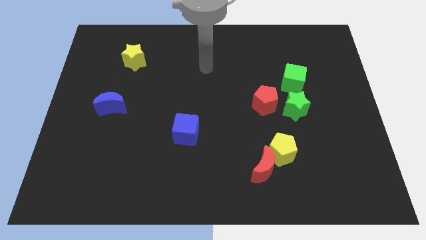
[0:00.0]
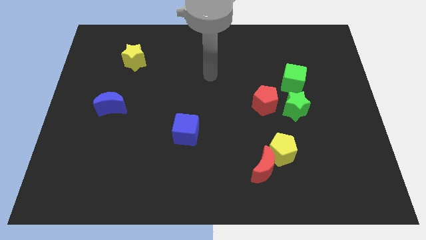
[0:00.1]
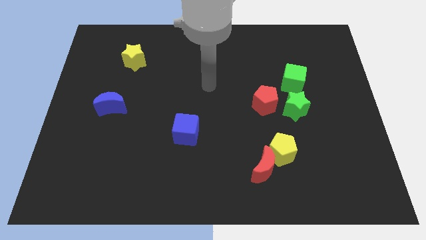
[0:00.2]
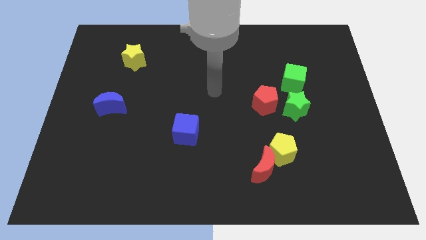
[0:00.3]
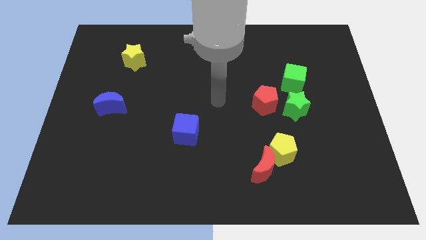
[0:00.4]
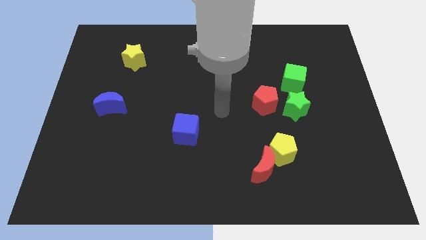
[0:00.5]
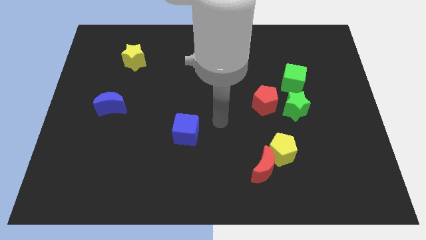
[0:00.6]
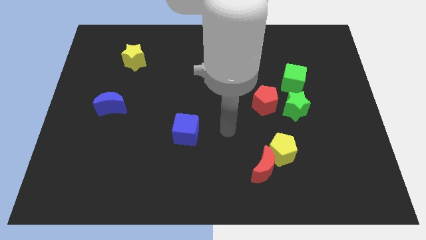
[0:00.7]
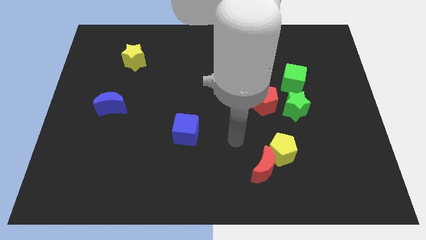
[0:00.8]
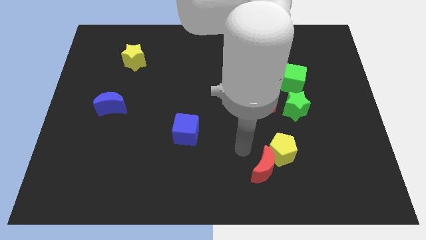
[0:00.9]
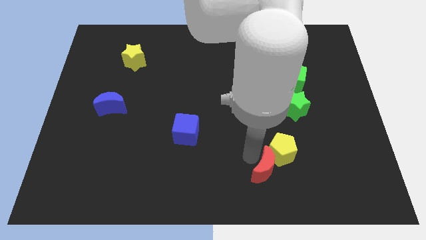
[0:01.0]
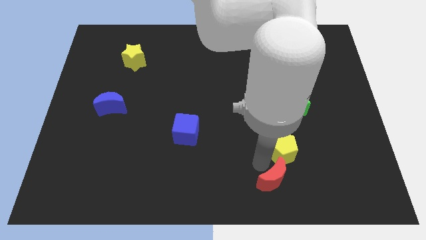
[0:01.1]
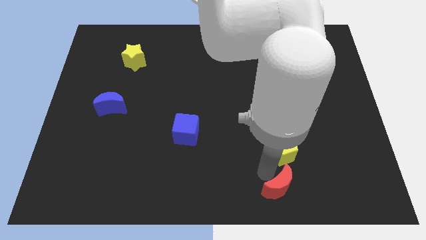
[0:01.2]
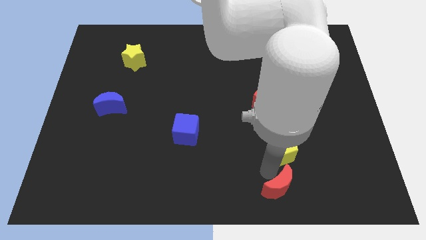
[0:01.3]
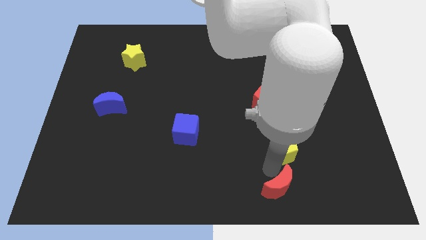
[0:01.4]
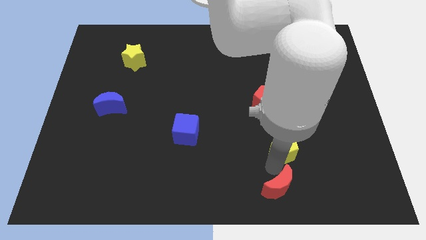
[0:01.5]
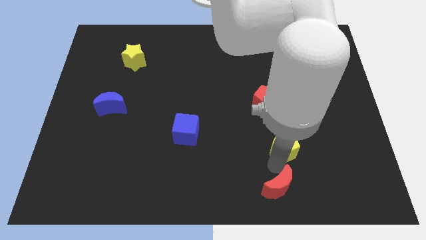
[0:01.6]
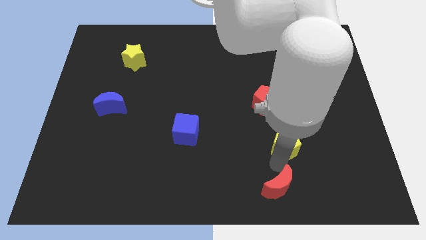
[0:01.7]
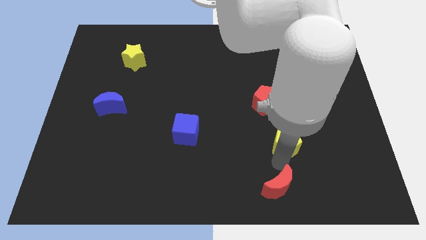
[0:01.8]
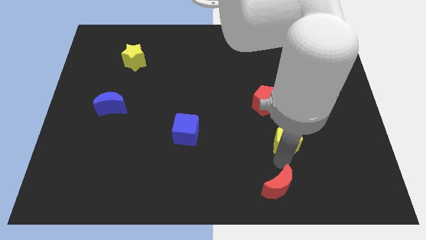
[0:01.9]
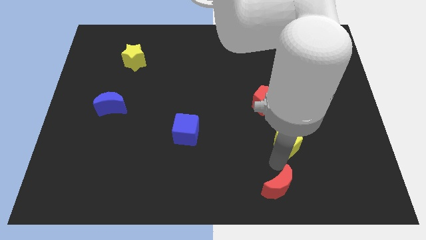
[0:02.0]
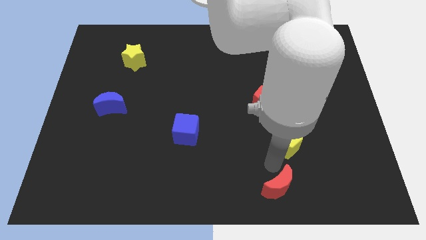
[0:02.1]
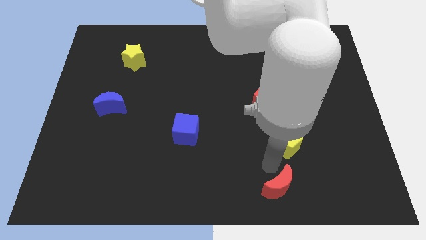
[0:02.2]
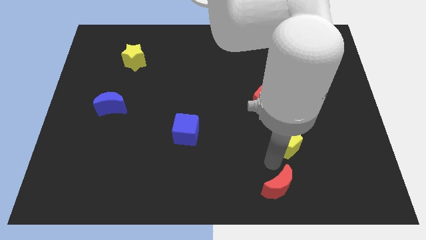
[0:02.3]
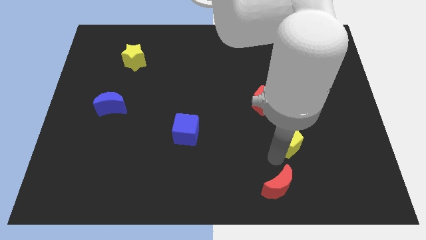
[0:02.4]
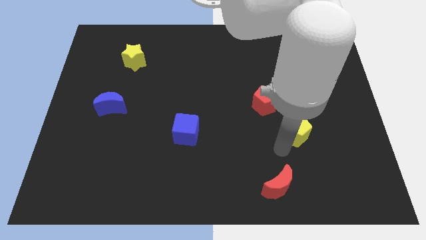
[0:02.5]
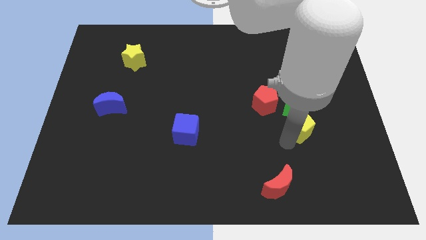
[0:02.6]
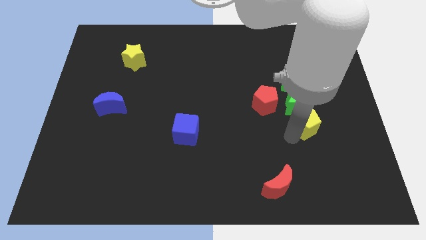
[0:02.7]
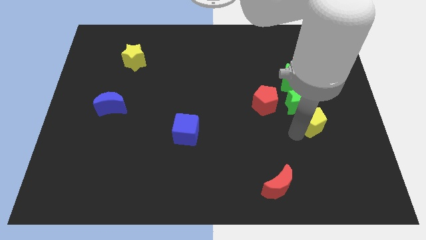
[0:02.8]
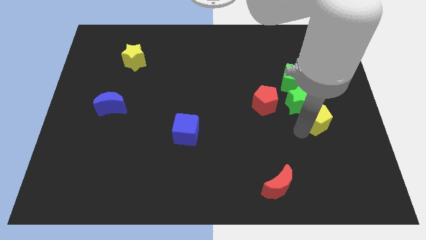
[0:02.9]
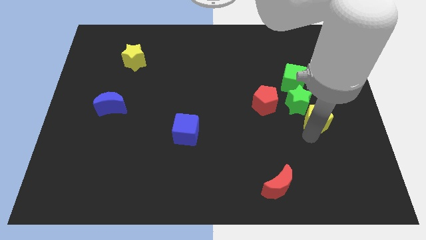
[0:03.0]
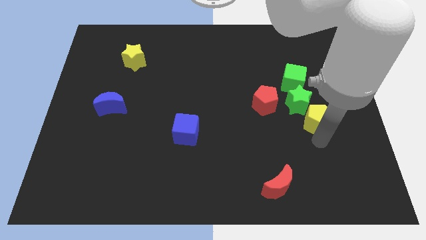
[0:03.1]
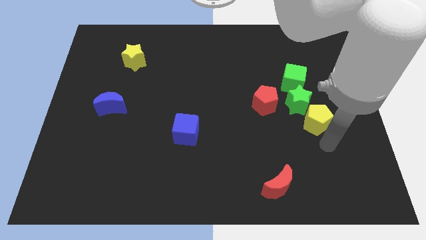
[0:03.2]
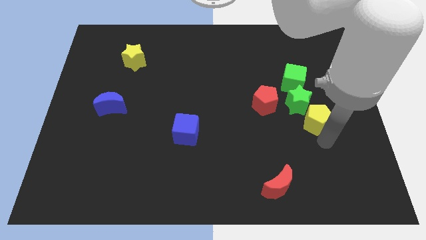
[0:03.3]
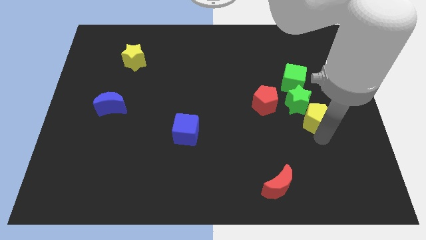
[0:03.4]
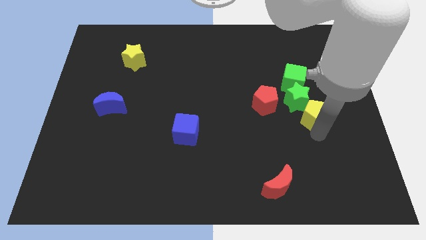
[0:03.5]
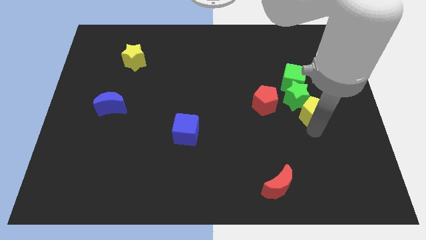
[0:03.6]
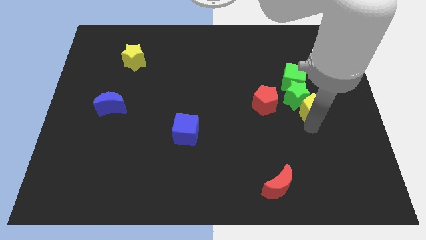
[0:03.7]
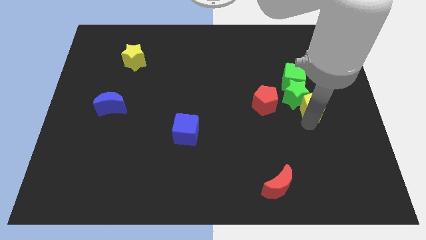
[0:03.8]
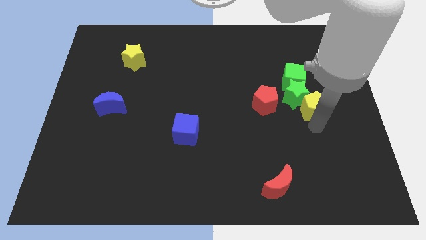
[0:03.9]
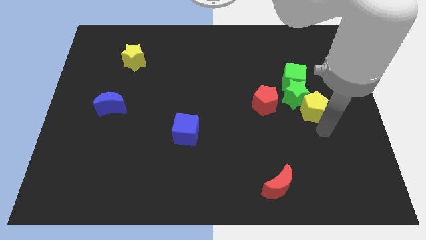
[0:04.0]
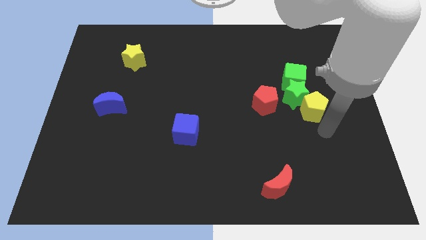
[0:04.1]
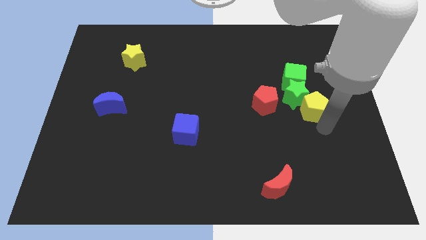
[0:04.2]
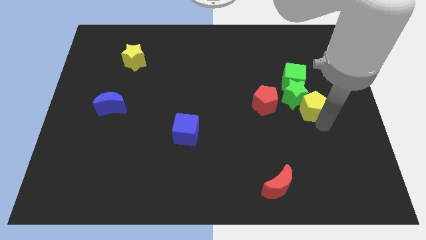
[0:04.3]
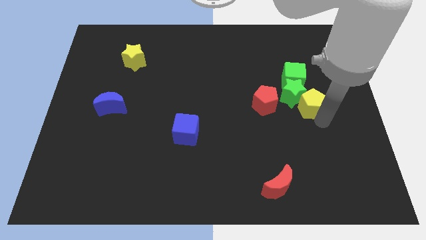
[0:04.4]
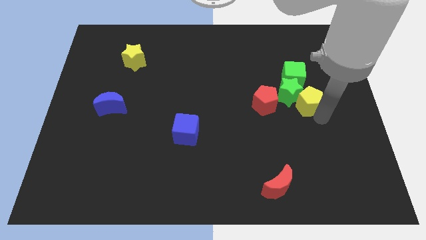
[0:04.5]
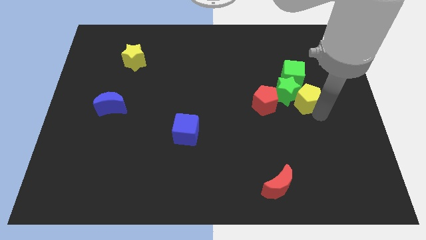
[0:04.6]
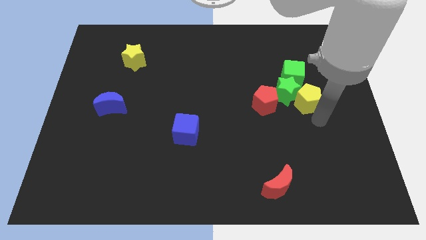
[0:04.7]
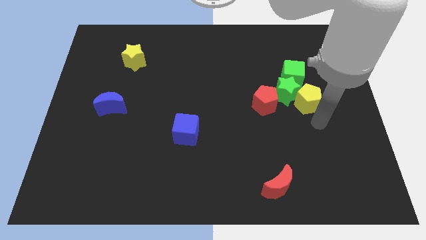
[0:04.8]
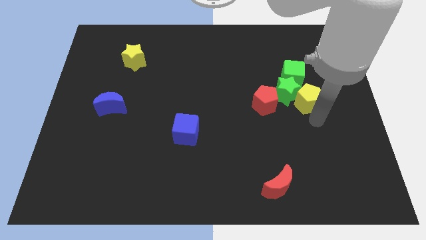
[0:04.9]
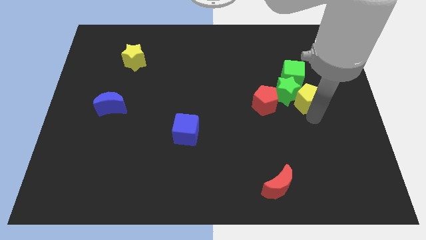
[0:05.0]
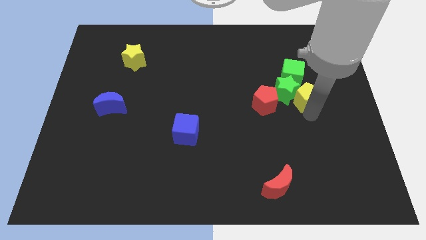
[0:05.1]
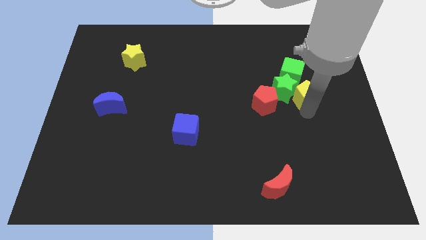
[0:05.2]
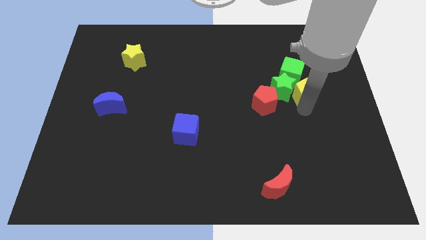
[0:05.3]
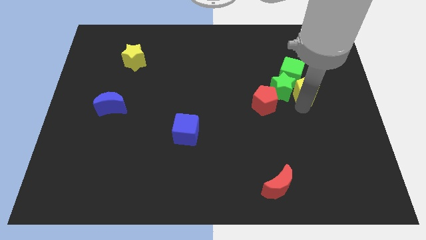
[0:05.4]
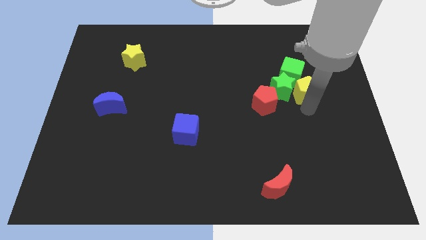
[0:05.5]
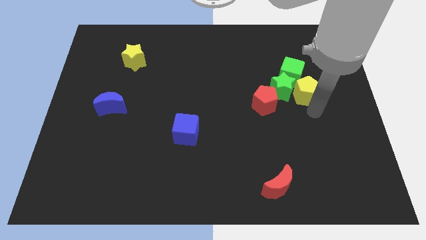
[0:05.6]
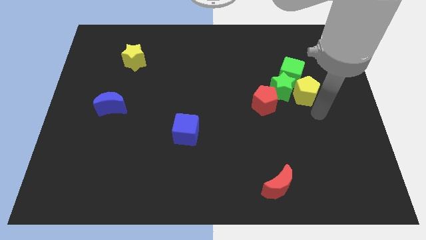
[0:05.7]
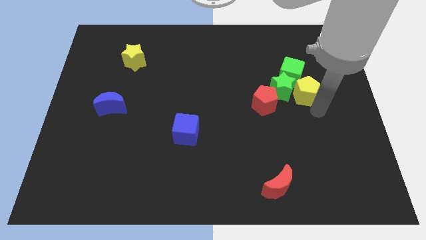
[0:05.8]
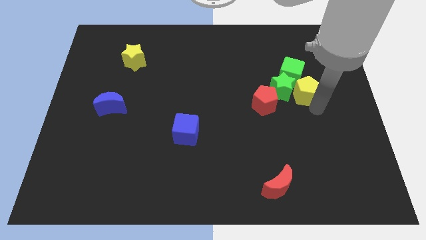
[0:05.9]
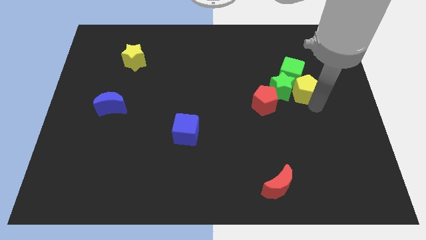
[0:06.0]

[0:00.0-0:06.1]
push the yellow pentagon towards the green cube

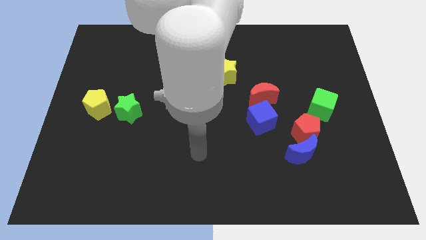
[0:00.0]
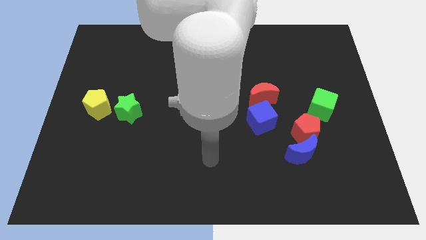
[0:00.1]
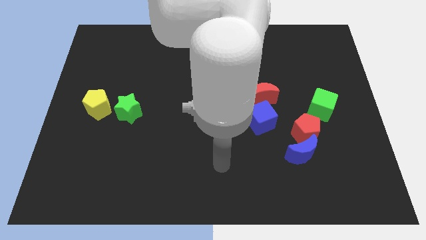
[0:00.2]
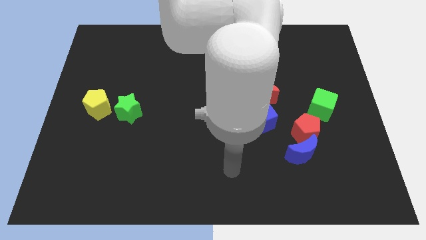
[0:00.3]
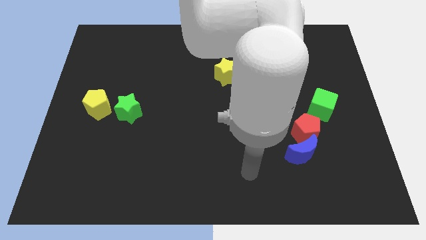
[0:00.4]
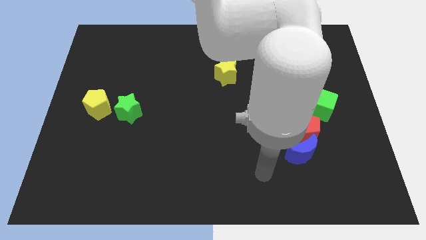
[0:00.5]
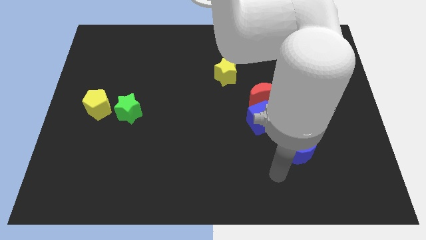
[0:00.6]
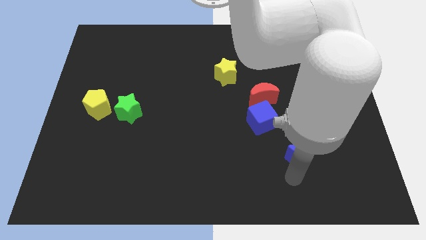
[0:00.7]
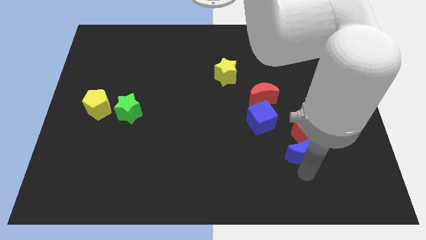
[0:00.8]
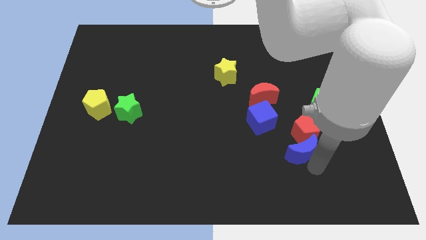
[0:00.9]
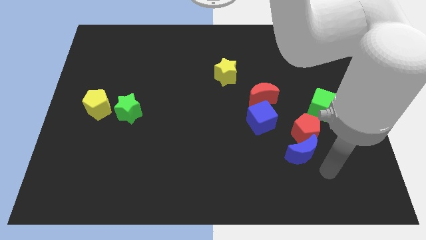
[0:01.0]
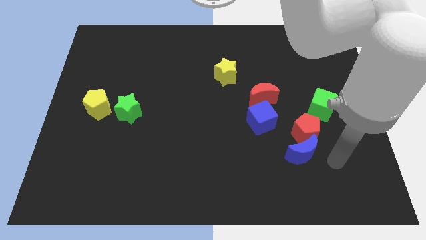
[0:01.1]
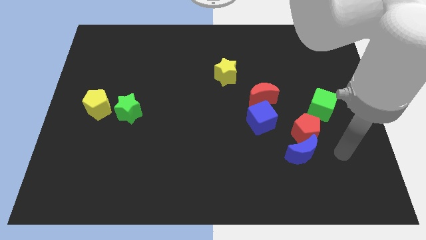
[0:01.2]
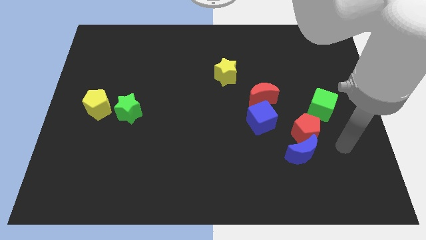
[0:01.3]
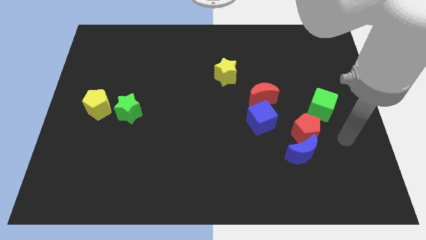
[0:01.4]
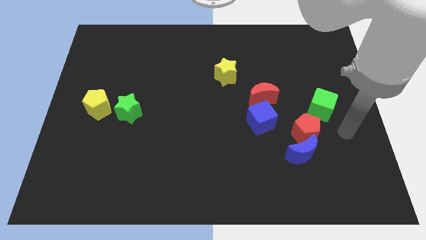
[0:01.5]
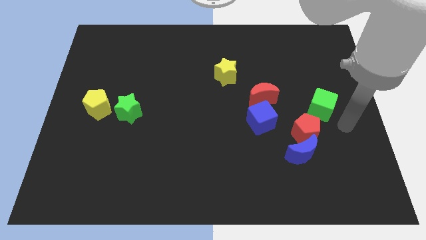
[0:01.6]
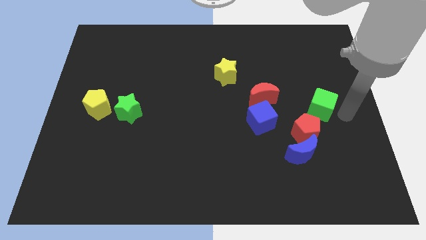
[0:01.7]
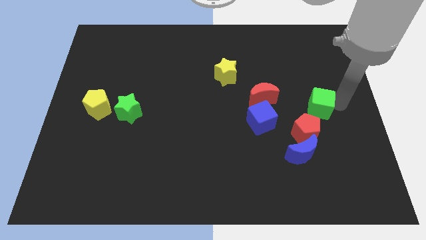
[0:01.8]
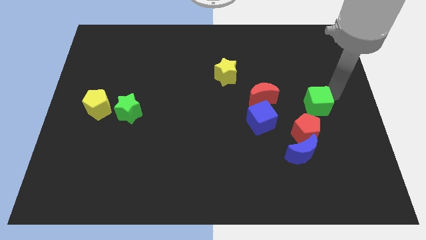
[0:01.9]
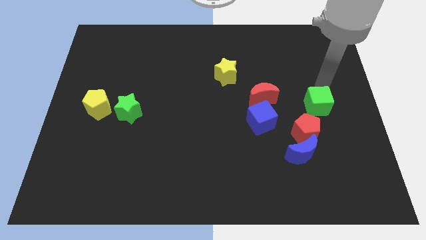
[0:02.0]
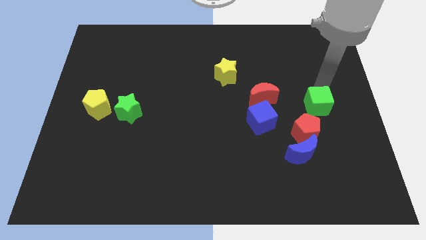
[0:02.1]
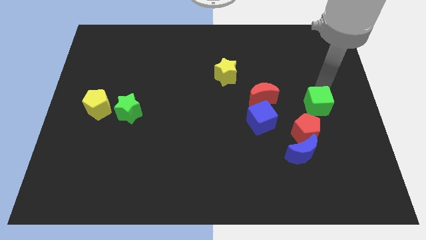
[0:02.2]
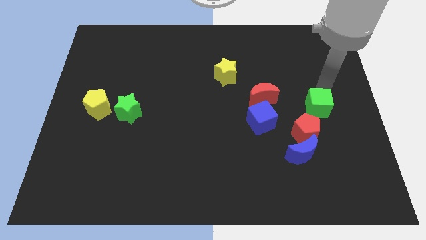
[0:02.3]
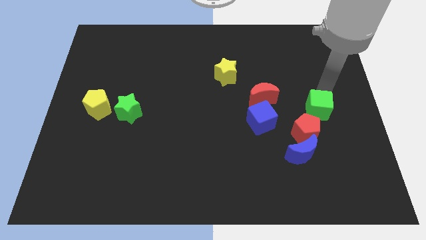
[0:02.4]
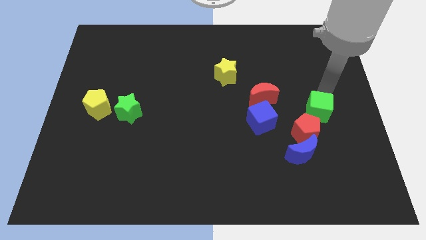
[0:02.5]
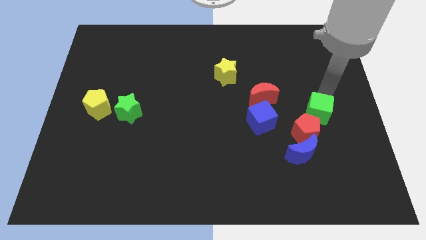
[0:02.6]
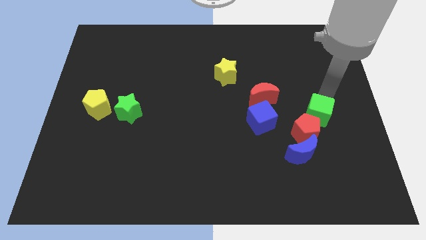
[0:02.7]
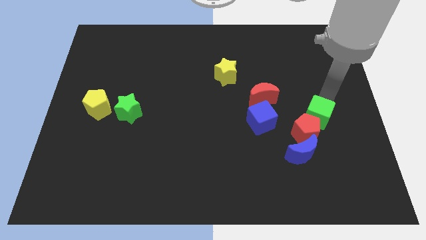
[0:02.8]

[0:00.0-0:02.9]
put the green cube close to the red pentagon
